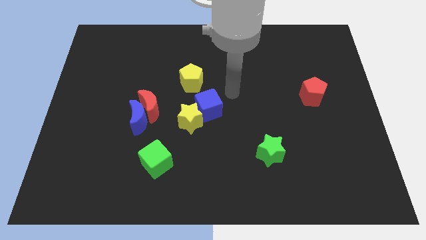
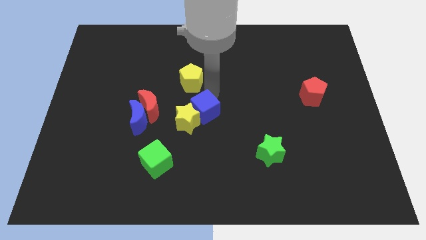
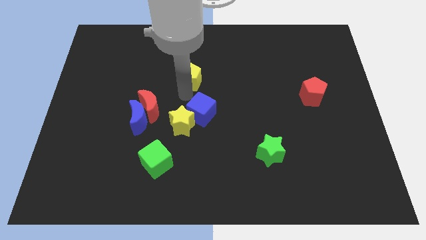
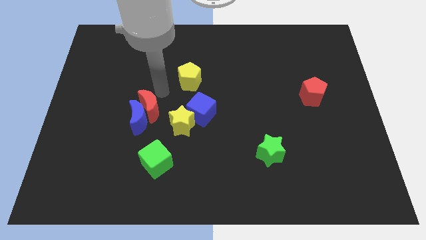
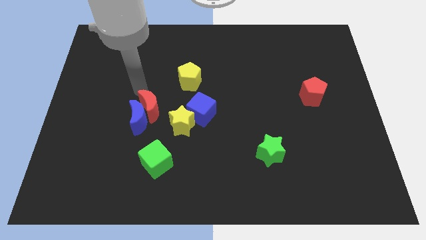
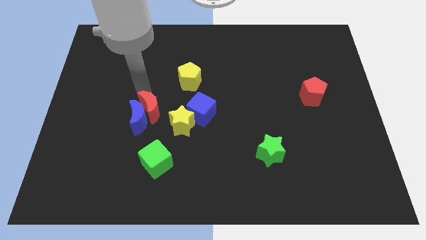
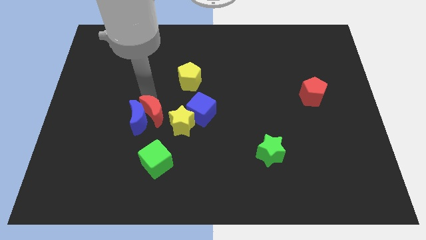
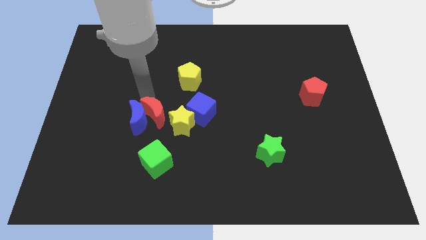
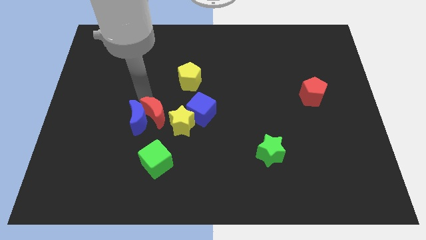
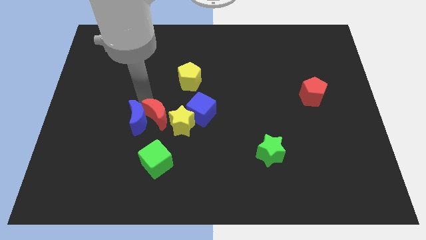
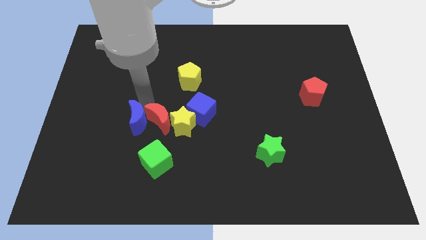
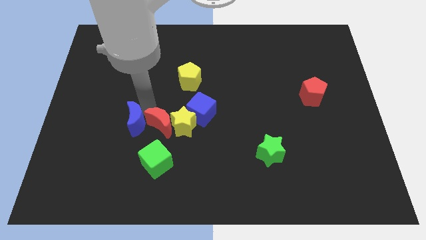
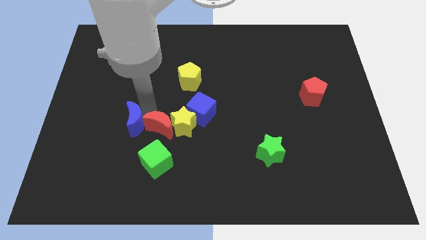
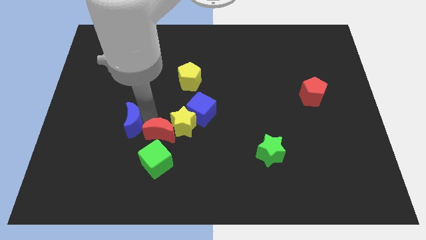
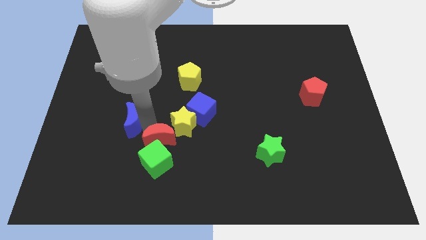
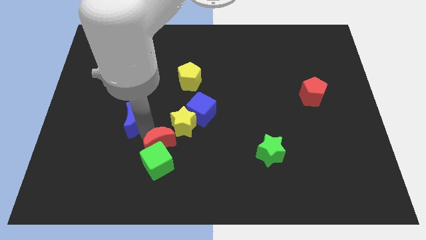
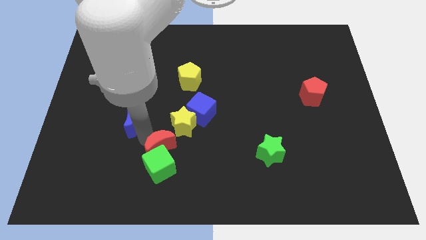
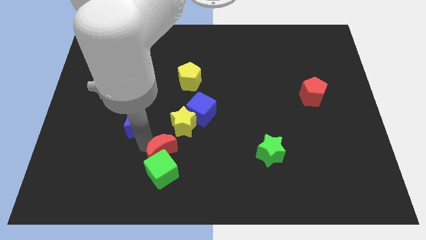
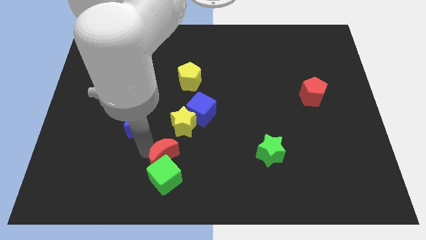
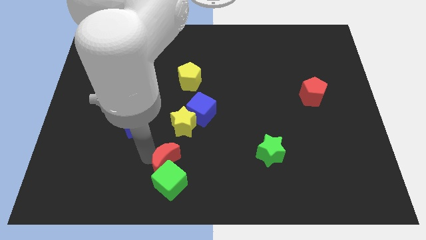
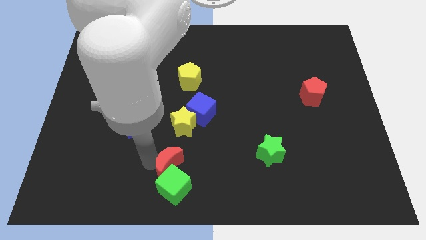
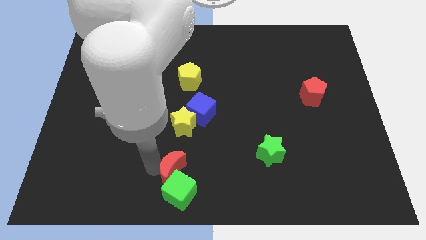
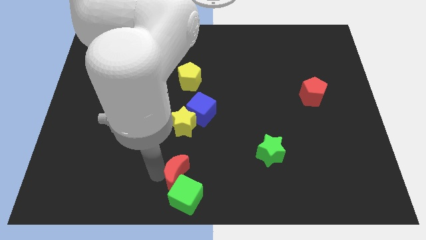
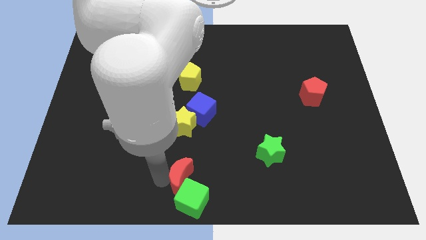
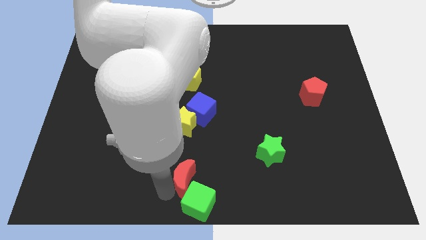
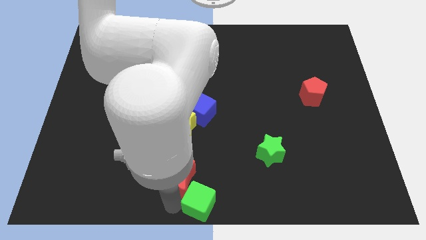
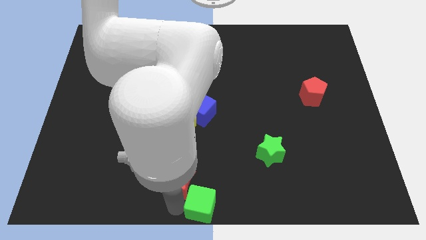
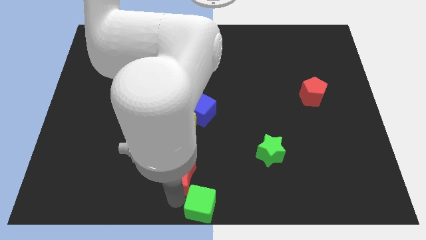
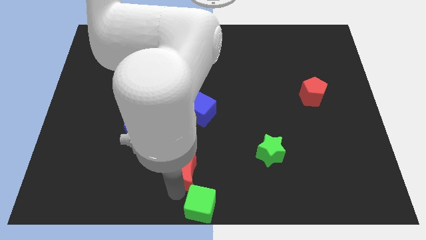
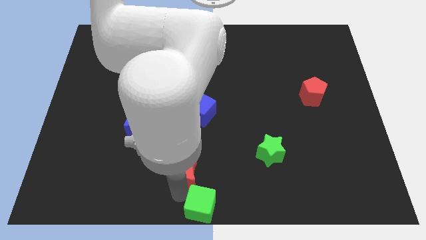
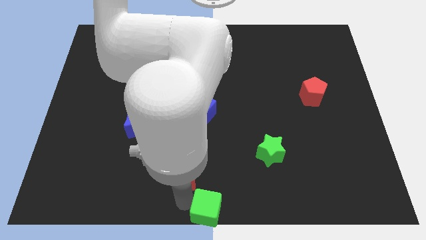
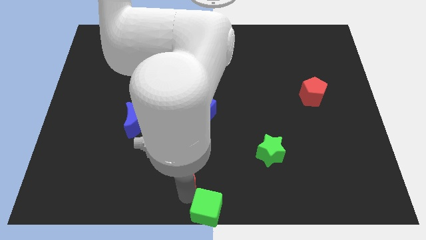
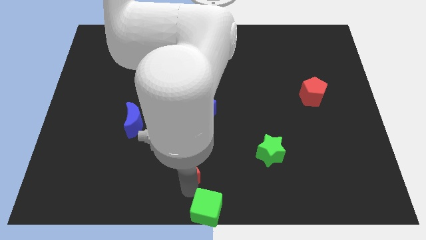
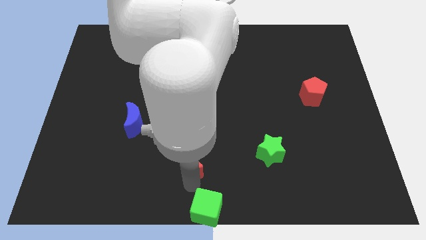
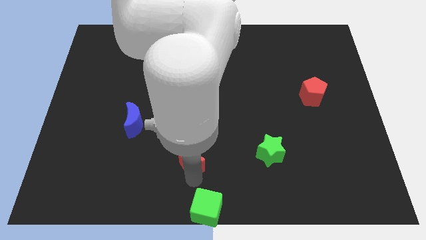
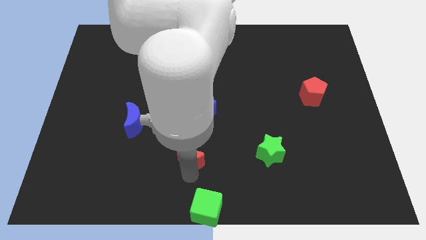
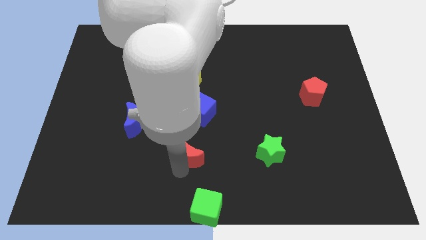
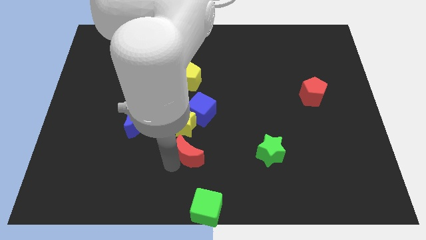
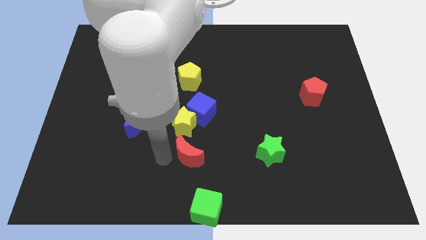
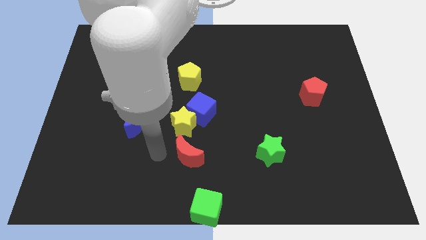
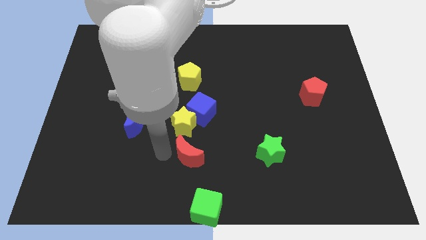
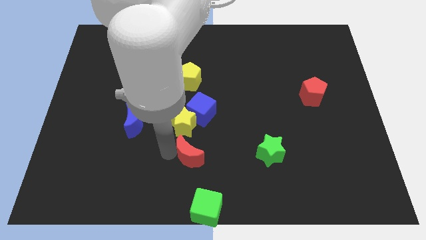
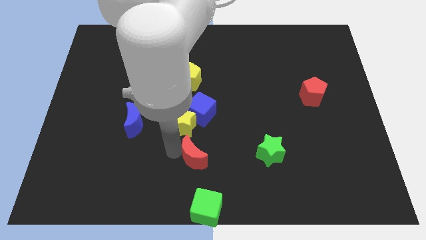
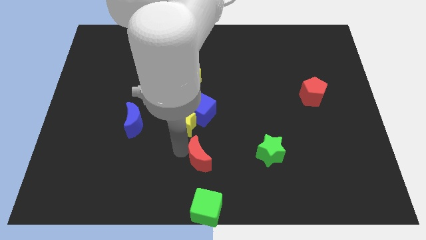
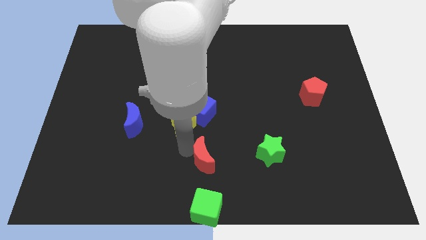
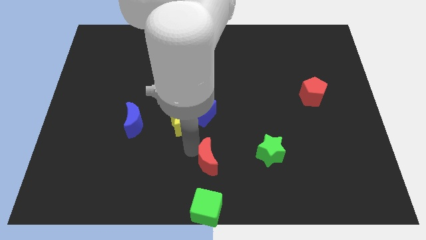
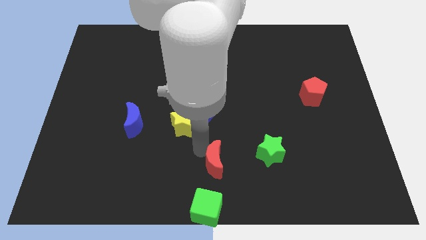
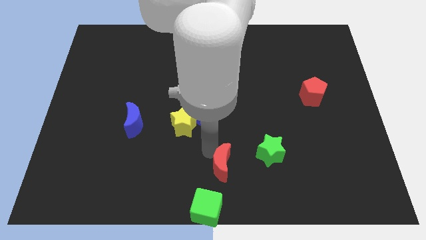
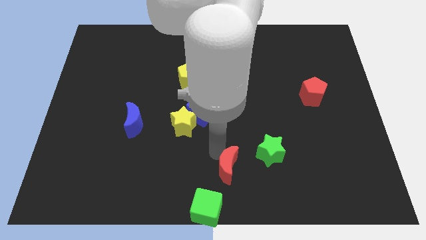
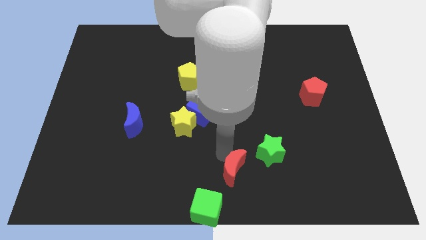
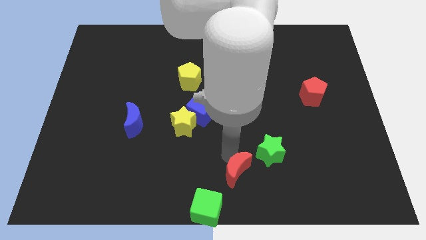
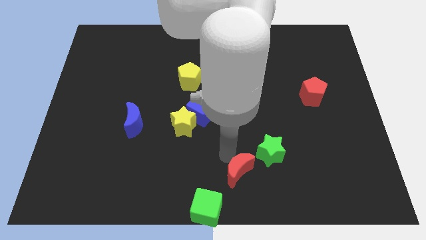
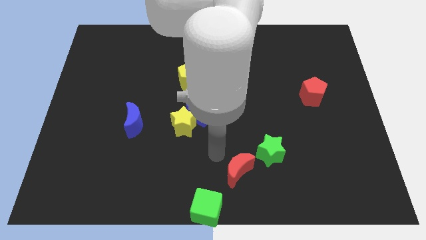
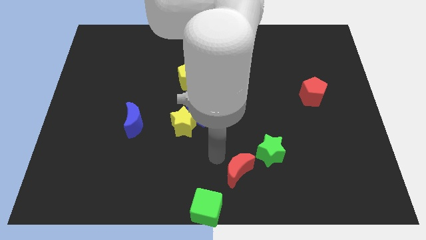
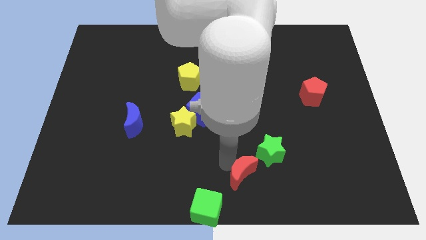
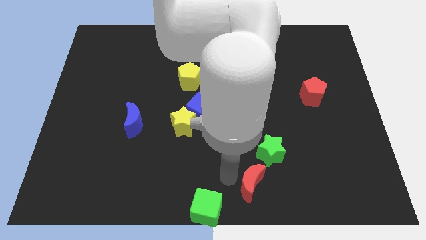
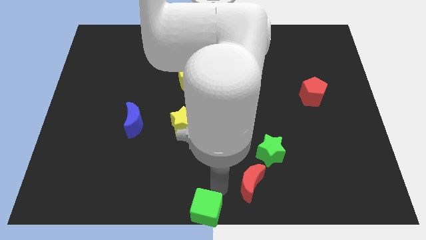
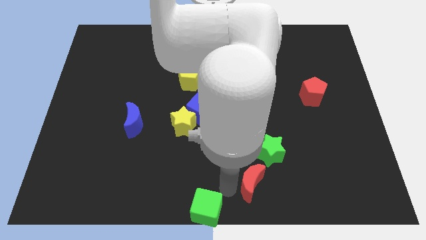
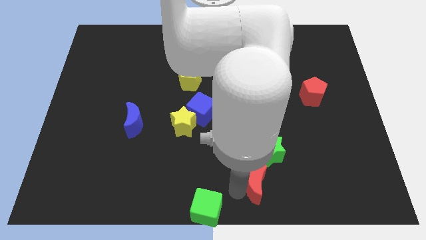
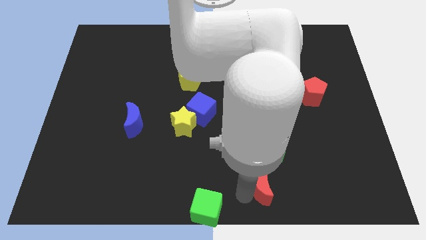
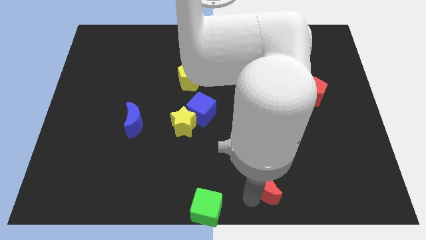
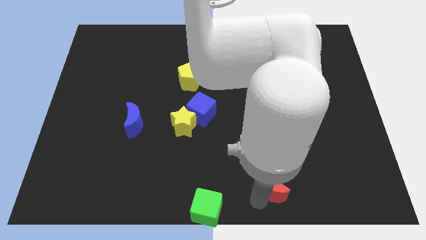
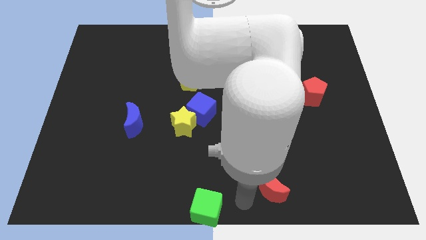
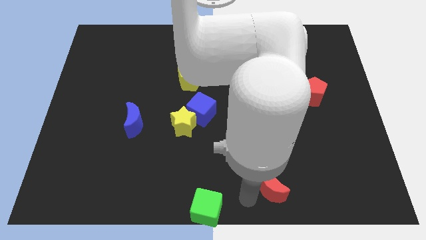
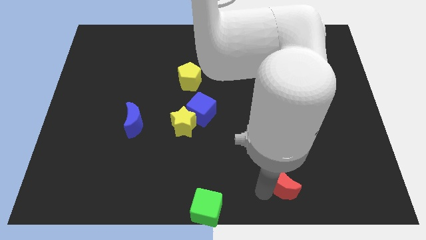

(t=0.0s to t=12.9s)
push the red moon to the bottom right side of the green star

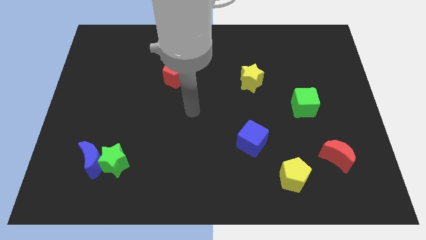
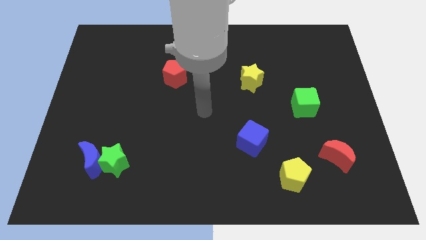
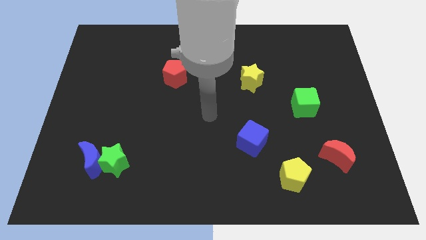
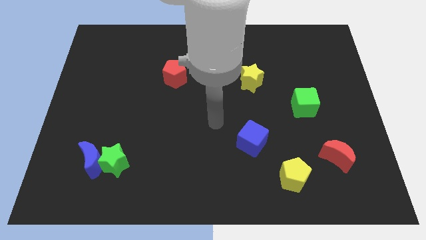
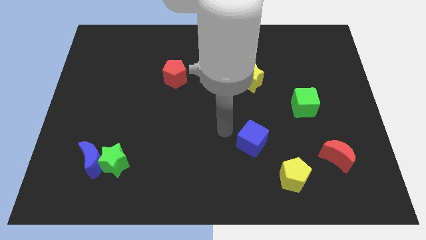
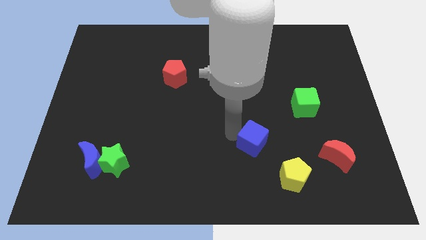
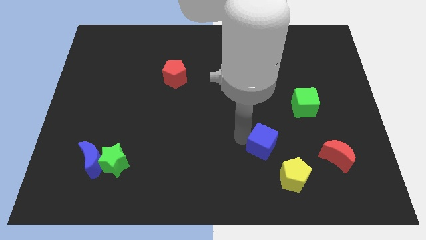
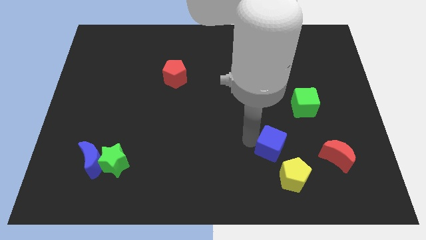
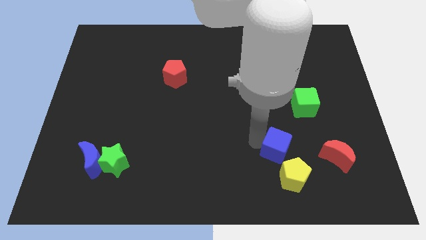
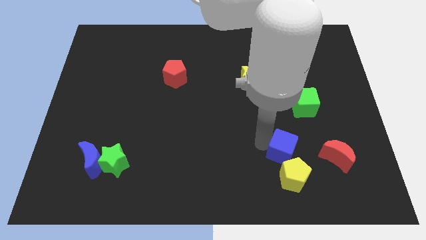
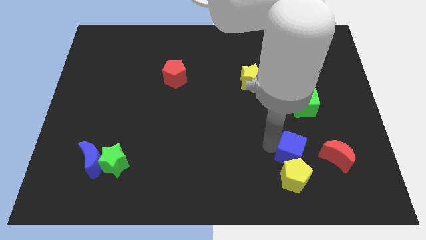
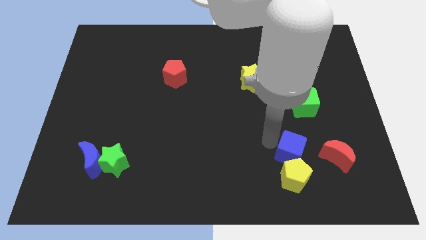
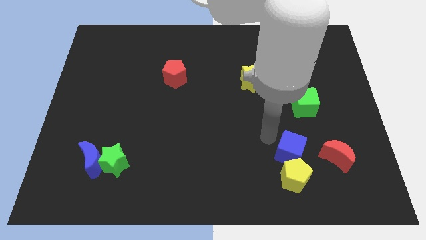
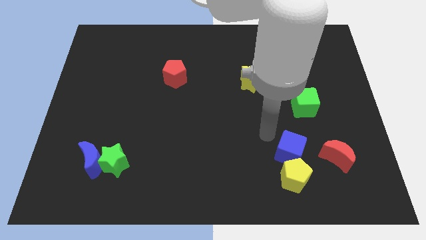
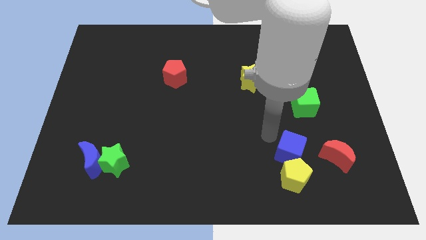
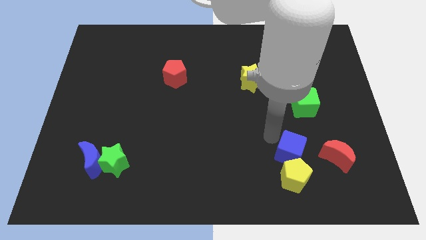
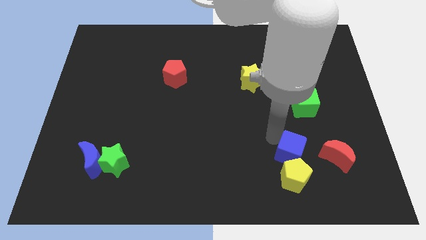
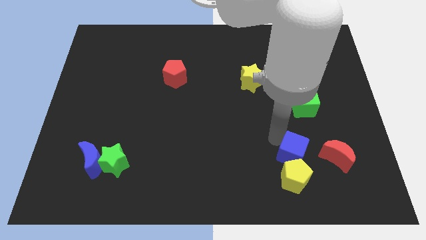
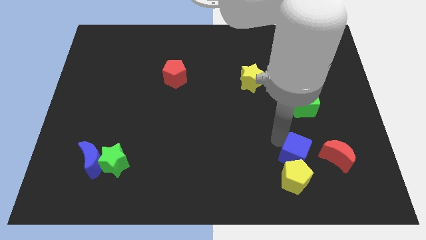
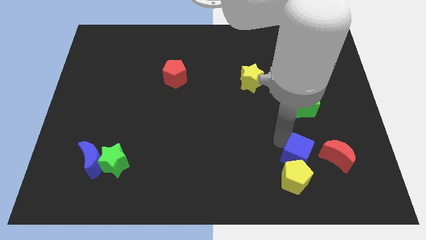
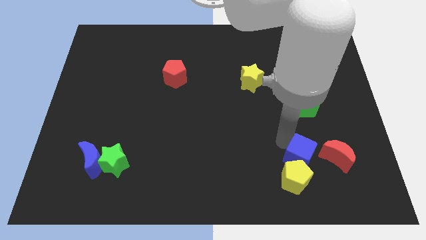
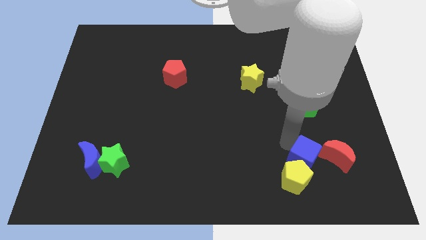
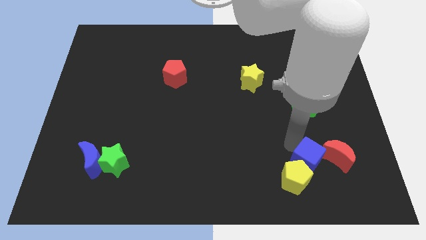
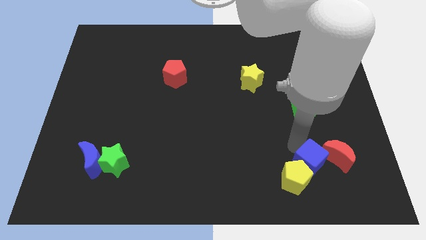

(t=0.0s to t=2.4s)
put the blue cube to the right of the yellow pentagon
